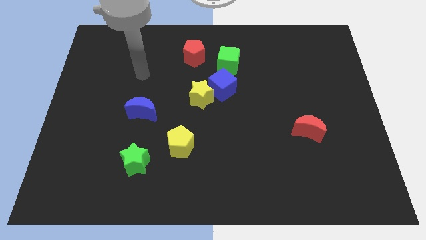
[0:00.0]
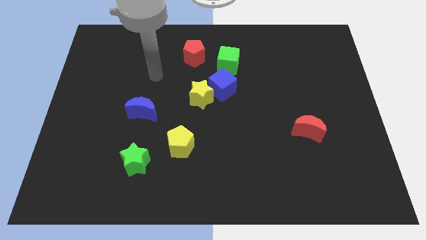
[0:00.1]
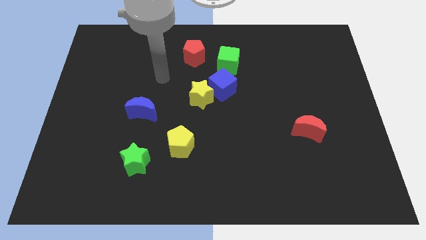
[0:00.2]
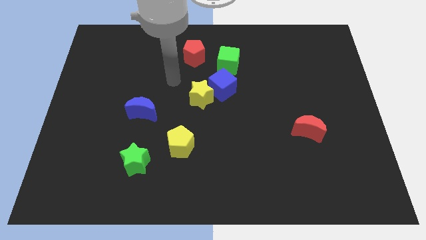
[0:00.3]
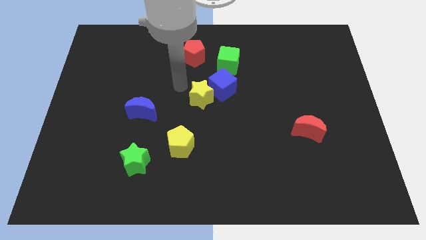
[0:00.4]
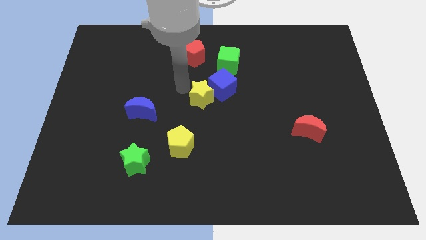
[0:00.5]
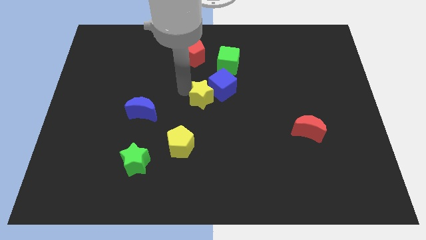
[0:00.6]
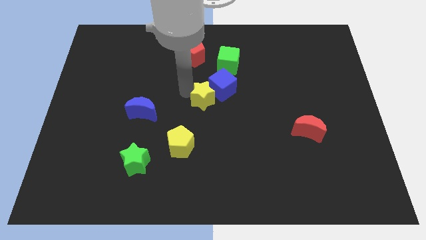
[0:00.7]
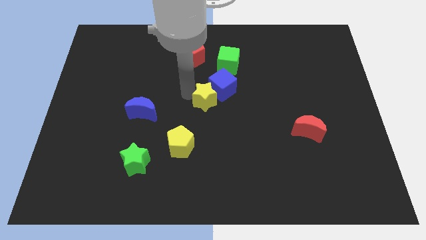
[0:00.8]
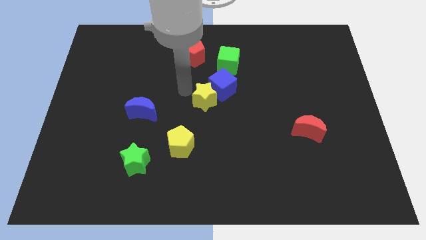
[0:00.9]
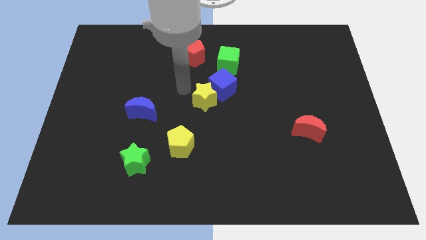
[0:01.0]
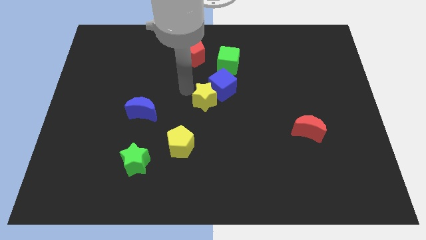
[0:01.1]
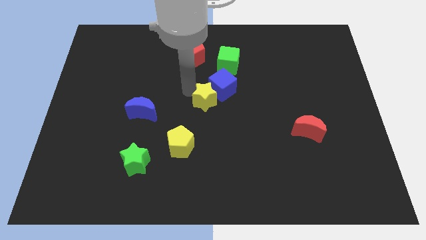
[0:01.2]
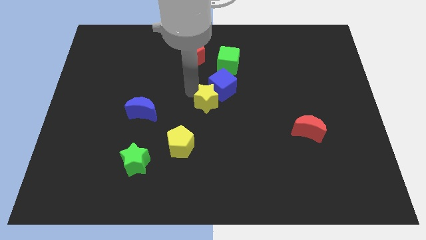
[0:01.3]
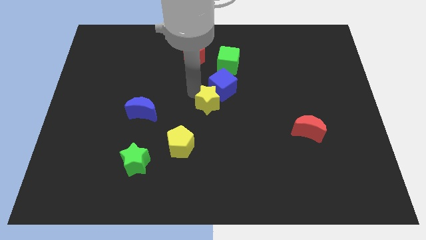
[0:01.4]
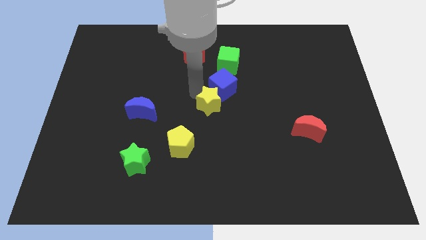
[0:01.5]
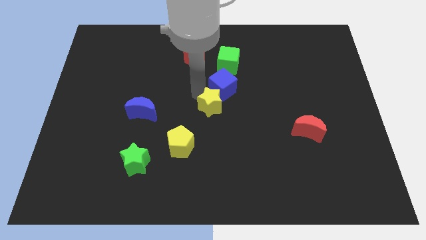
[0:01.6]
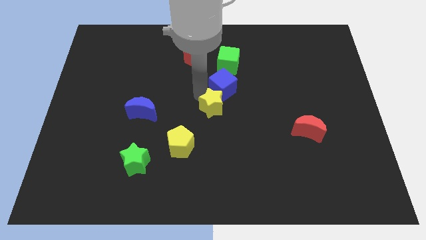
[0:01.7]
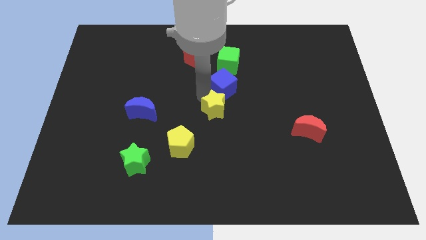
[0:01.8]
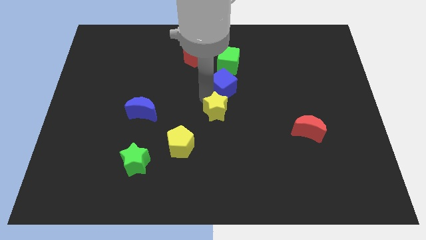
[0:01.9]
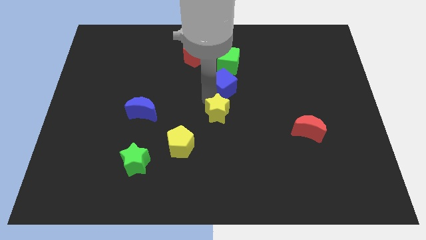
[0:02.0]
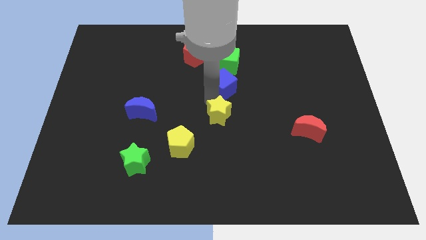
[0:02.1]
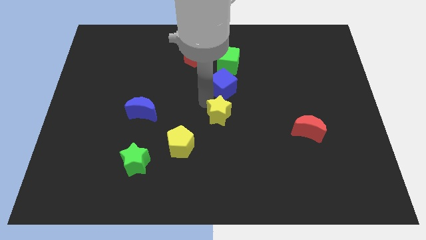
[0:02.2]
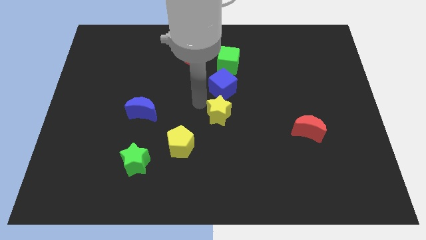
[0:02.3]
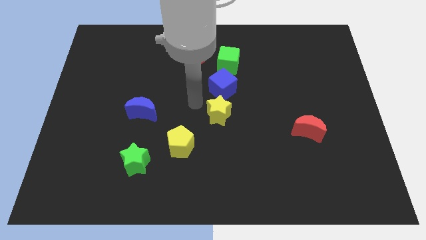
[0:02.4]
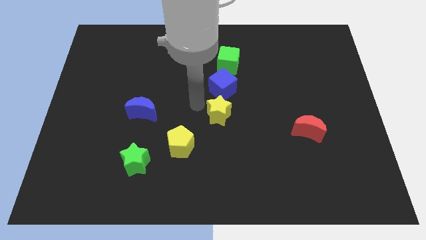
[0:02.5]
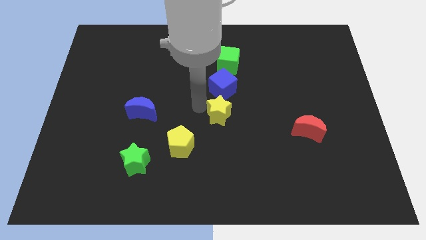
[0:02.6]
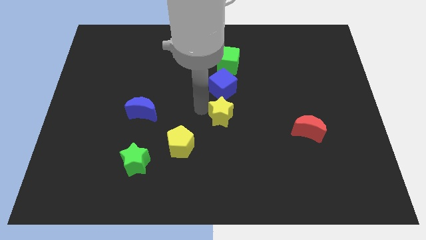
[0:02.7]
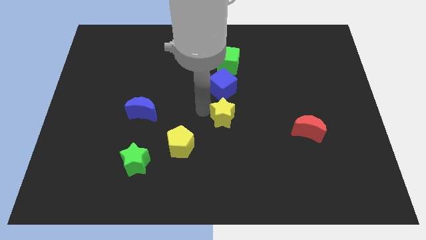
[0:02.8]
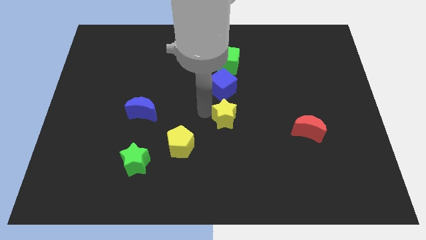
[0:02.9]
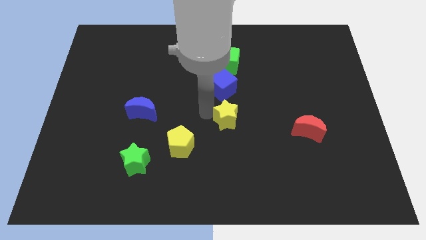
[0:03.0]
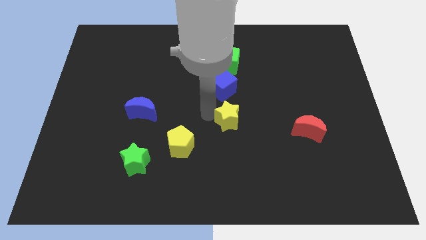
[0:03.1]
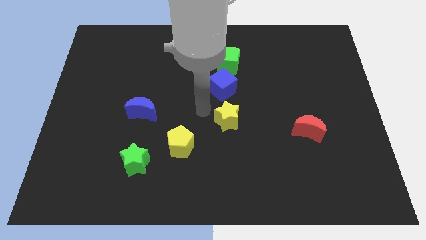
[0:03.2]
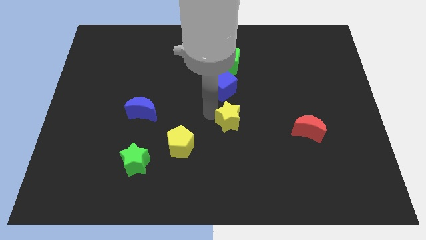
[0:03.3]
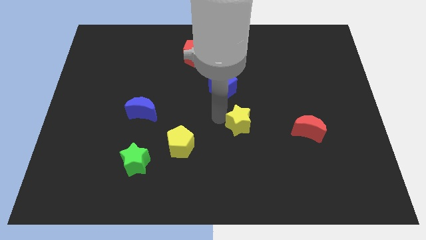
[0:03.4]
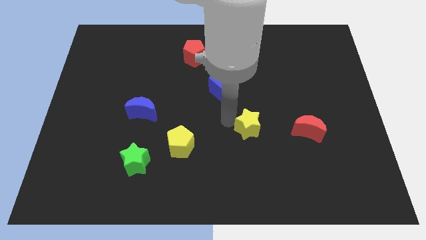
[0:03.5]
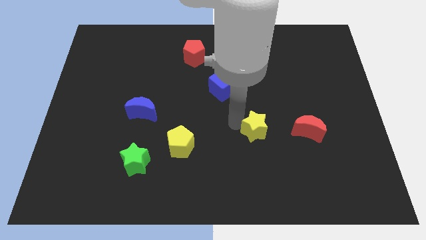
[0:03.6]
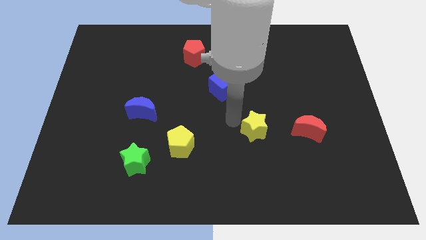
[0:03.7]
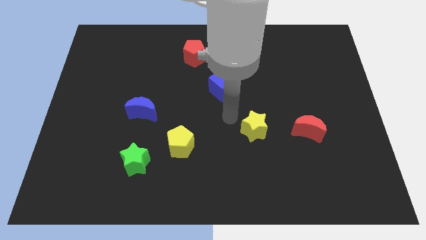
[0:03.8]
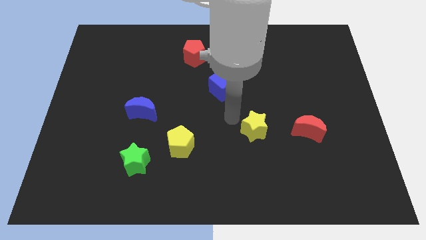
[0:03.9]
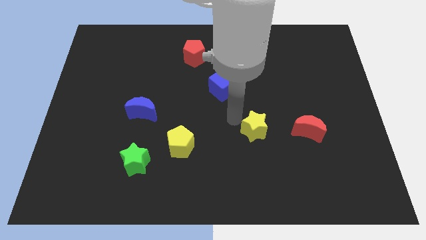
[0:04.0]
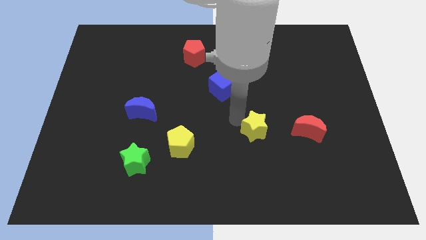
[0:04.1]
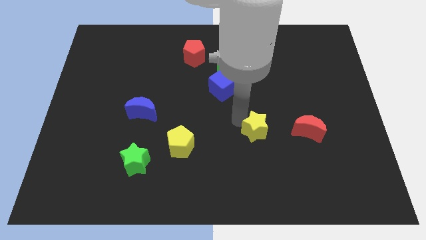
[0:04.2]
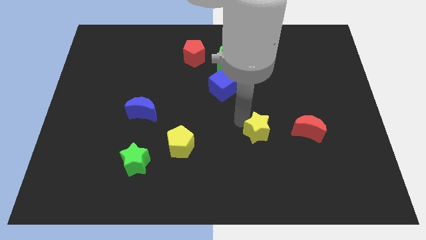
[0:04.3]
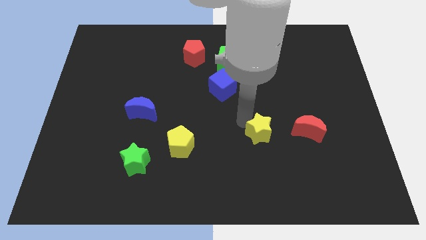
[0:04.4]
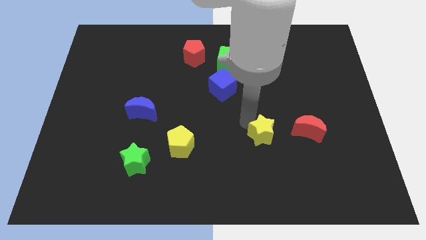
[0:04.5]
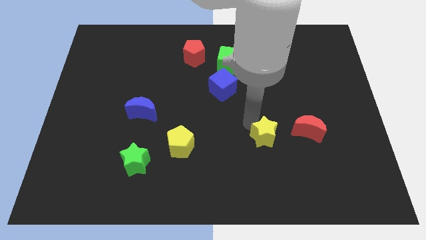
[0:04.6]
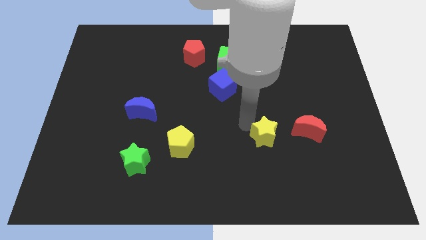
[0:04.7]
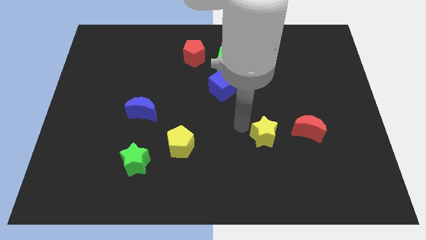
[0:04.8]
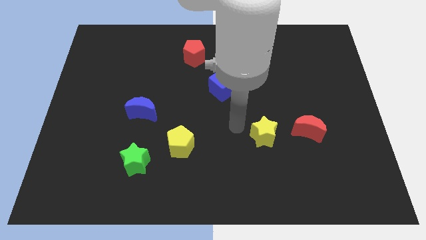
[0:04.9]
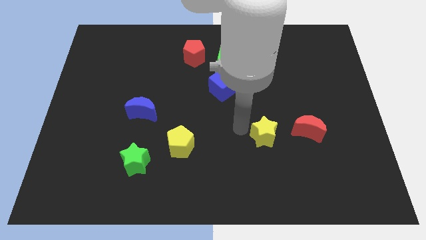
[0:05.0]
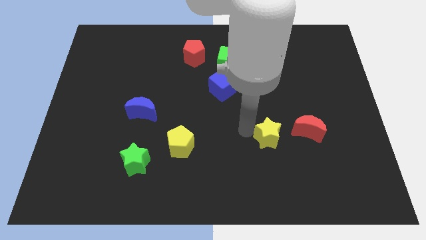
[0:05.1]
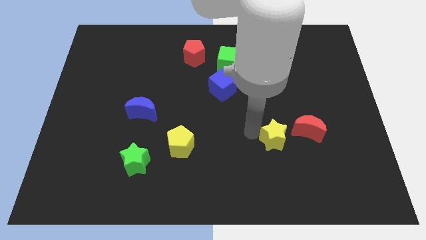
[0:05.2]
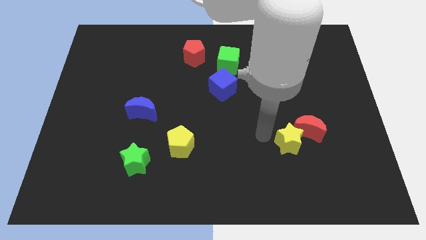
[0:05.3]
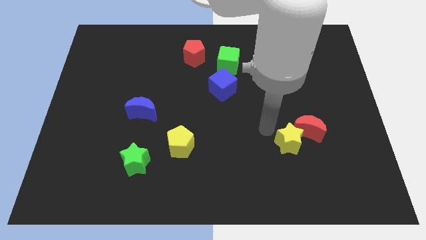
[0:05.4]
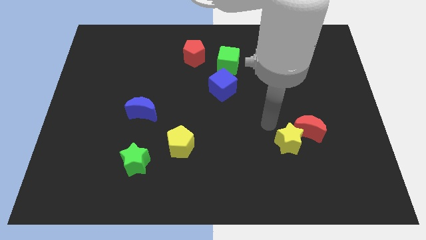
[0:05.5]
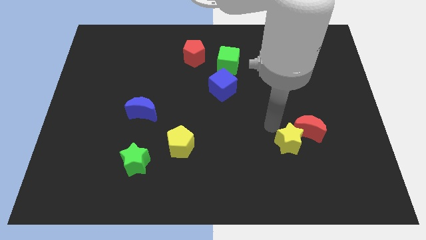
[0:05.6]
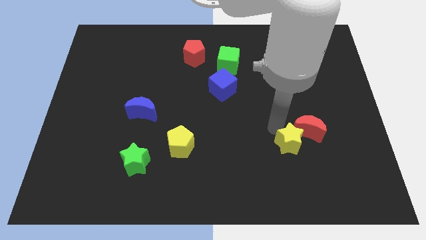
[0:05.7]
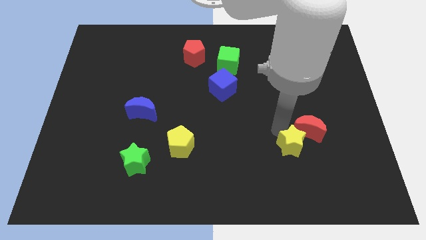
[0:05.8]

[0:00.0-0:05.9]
push the yellow star below the red moon

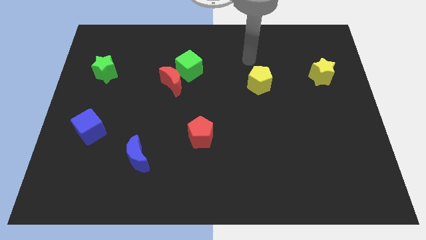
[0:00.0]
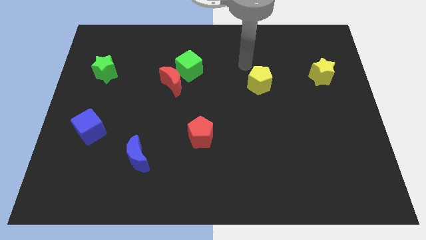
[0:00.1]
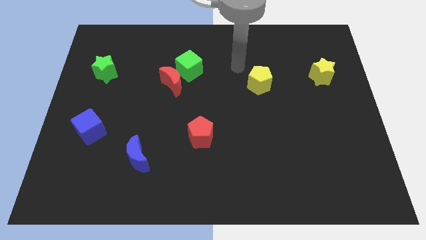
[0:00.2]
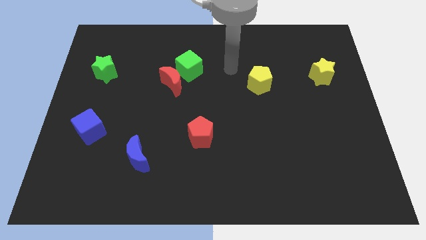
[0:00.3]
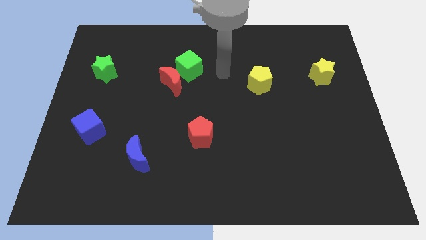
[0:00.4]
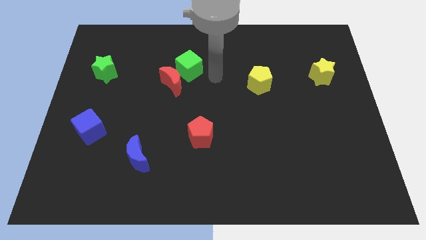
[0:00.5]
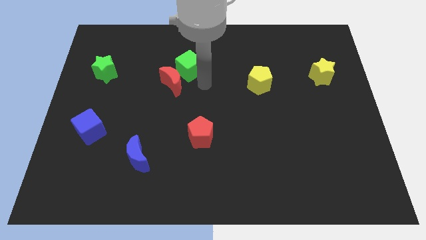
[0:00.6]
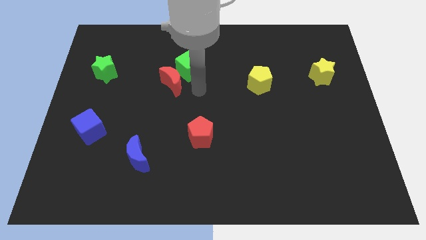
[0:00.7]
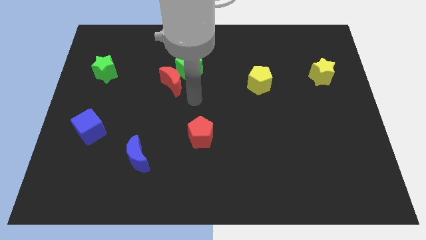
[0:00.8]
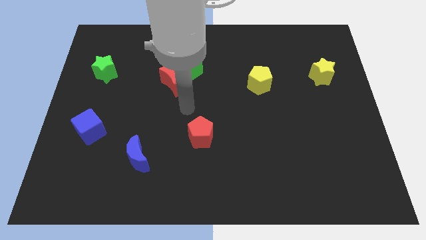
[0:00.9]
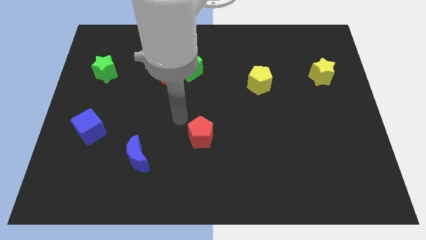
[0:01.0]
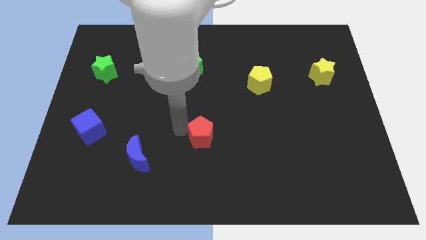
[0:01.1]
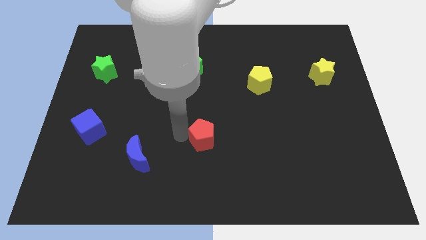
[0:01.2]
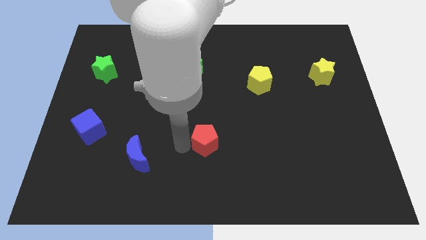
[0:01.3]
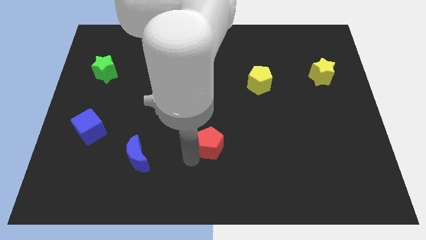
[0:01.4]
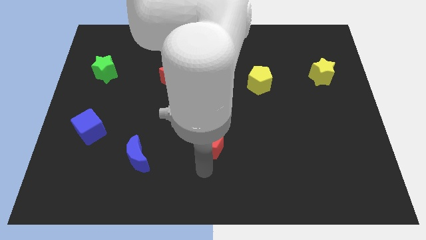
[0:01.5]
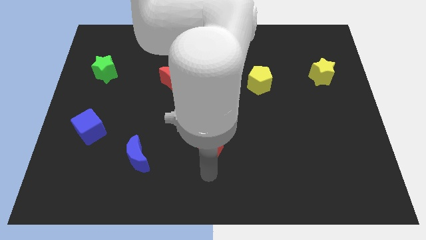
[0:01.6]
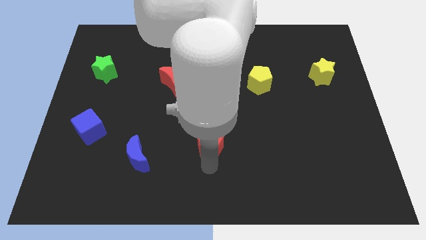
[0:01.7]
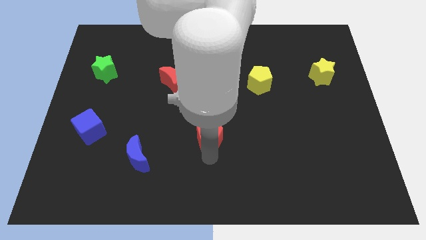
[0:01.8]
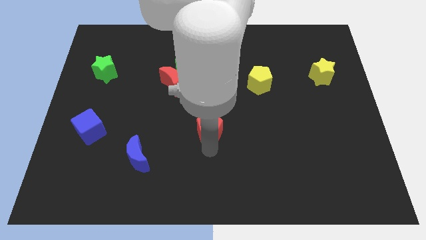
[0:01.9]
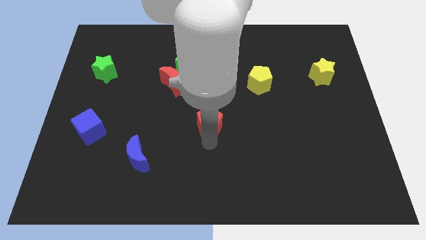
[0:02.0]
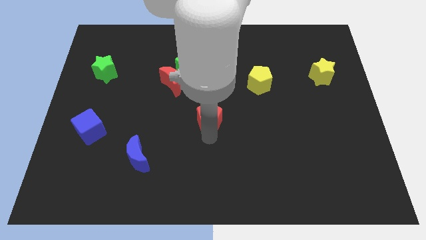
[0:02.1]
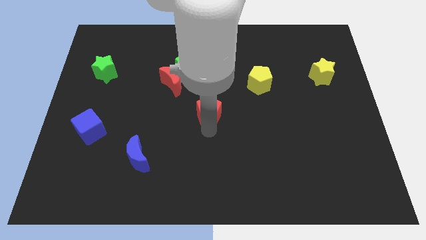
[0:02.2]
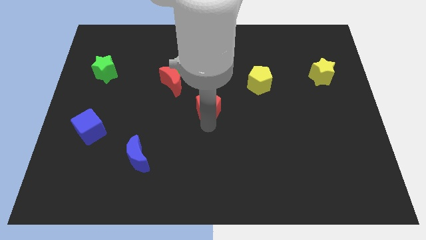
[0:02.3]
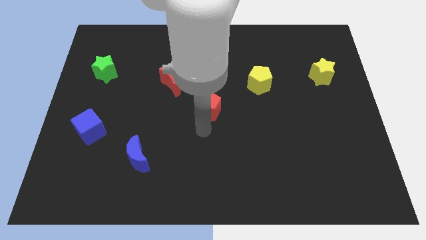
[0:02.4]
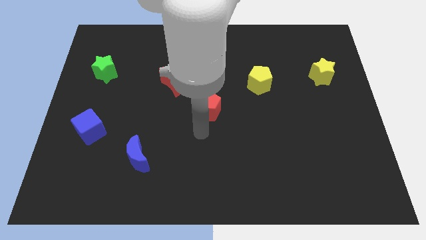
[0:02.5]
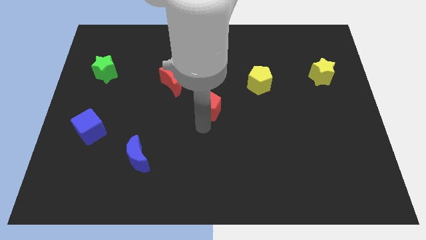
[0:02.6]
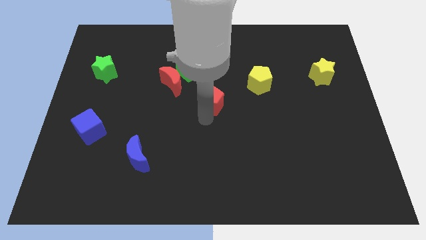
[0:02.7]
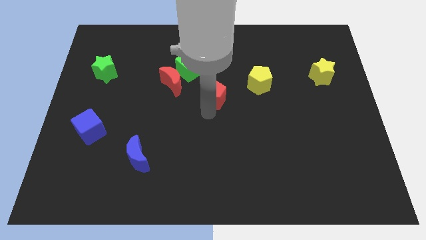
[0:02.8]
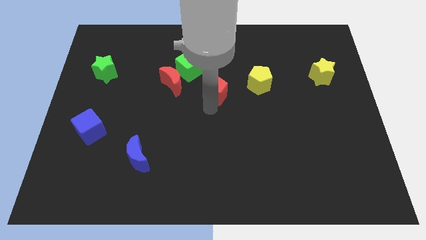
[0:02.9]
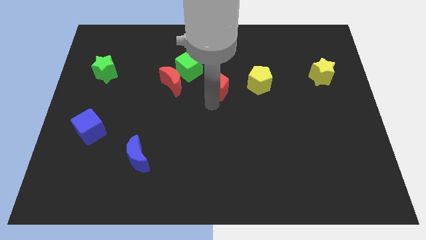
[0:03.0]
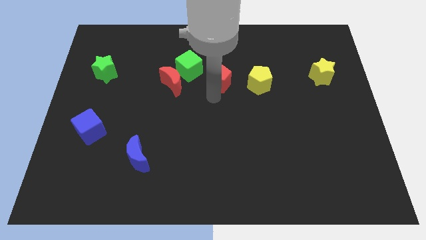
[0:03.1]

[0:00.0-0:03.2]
put the red pentagon to the right side of the green cube
